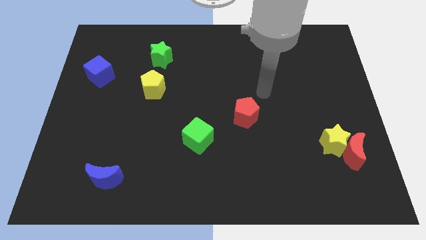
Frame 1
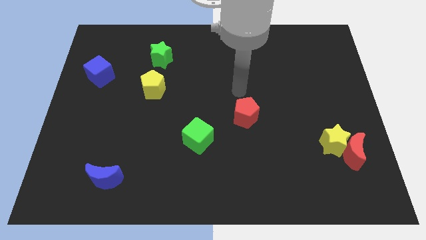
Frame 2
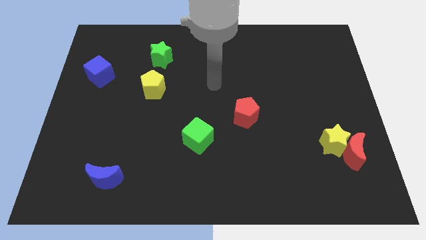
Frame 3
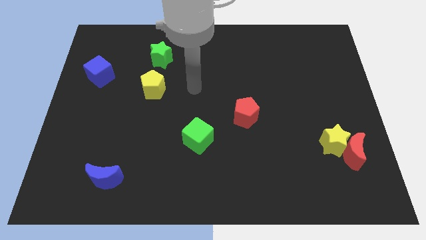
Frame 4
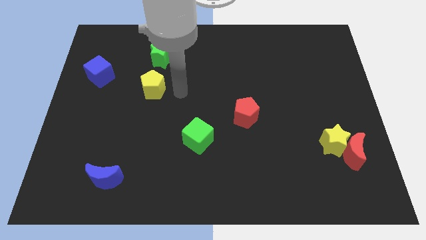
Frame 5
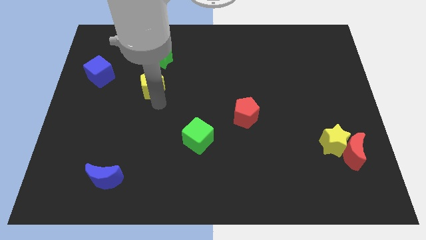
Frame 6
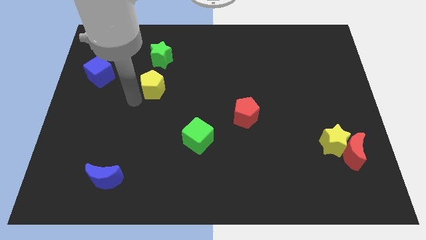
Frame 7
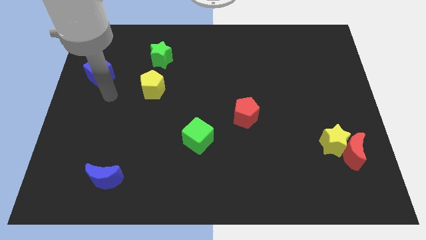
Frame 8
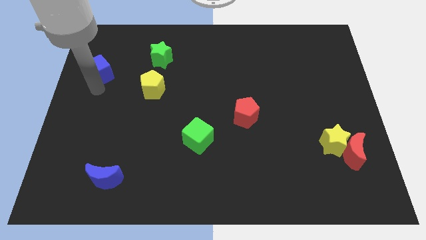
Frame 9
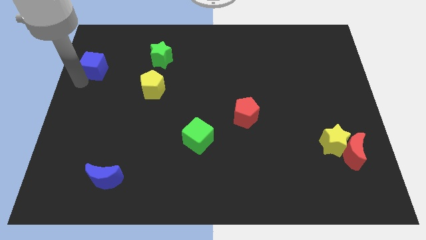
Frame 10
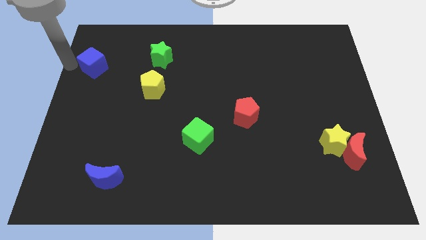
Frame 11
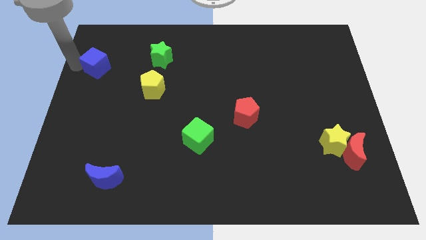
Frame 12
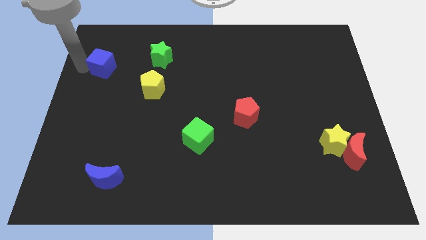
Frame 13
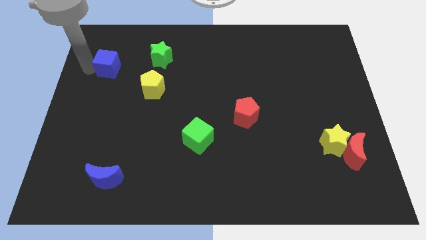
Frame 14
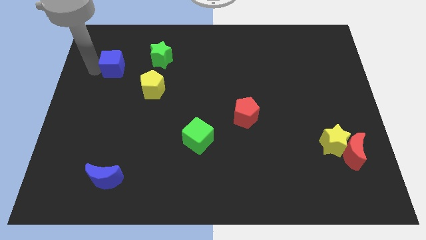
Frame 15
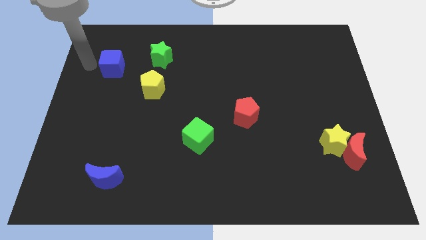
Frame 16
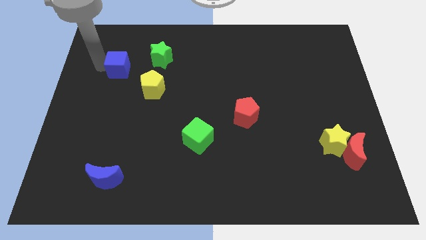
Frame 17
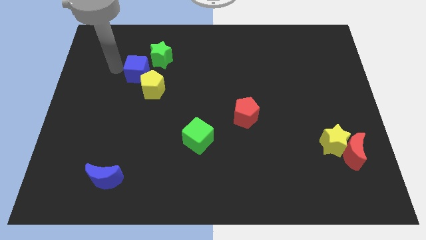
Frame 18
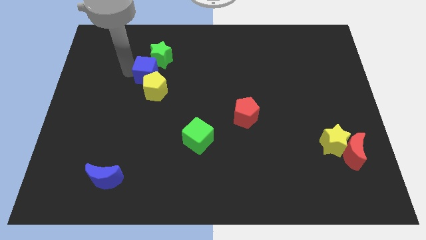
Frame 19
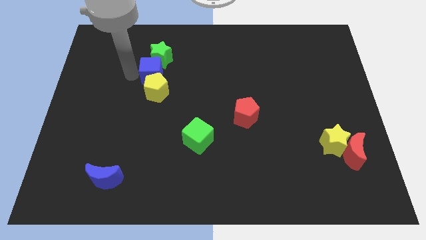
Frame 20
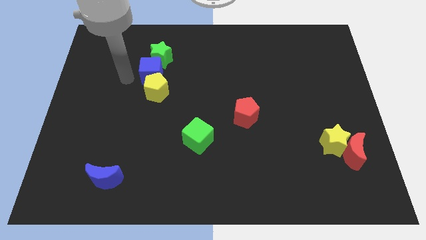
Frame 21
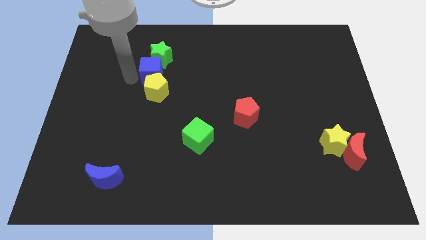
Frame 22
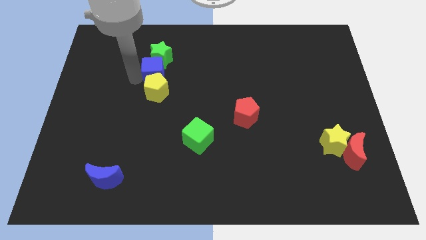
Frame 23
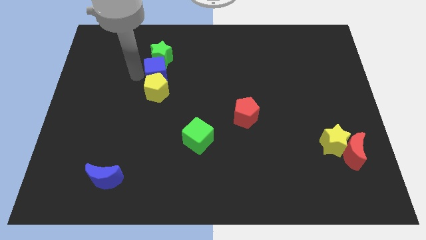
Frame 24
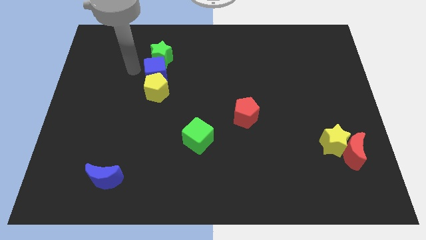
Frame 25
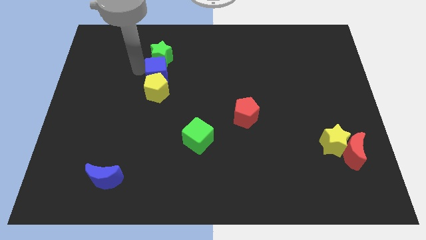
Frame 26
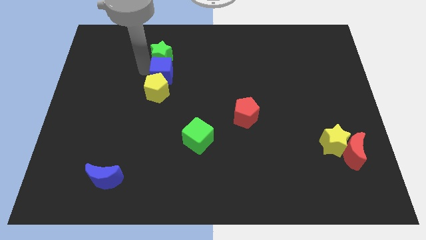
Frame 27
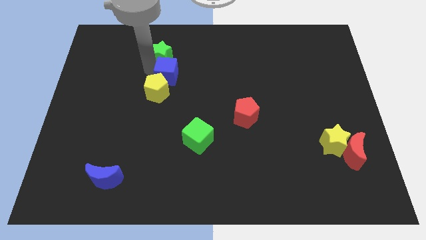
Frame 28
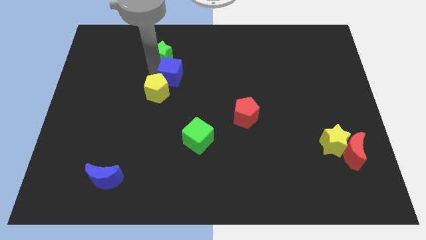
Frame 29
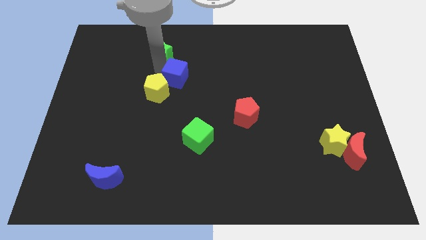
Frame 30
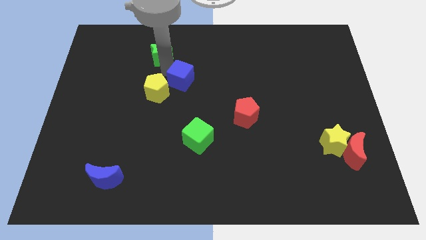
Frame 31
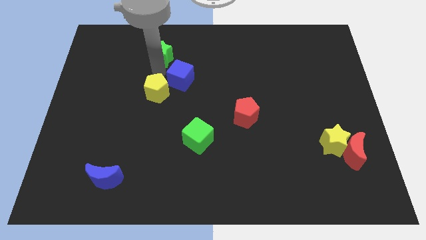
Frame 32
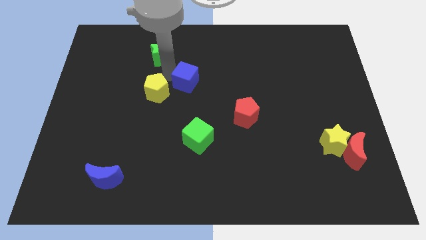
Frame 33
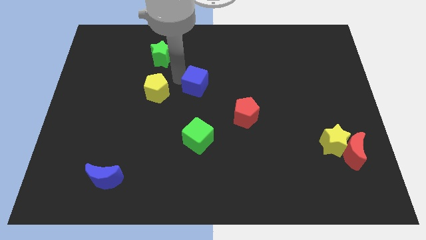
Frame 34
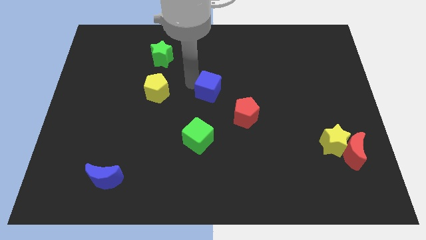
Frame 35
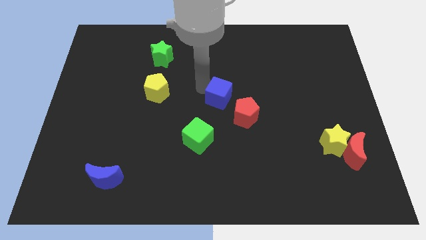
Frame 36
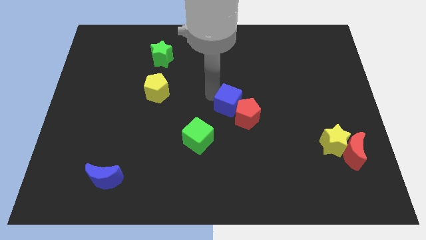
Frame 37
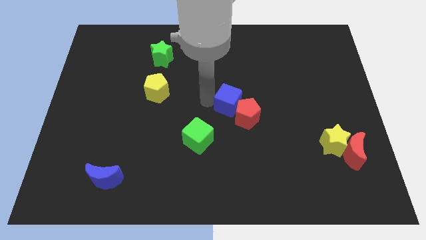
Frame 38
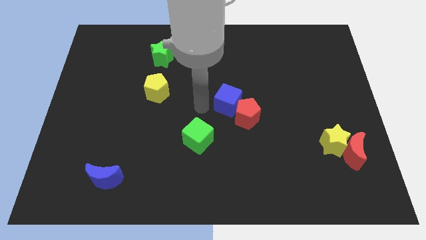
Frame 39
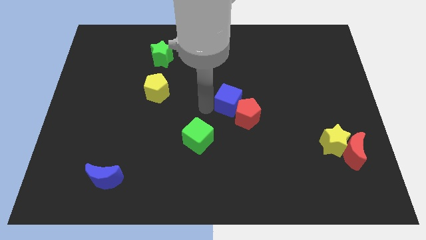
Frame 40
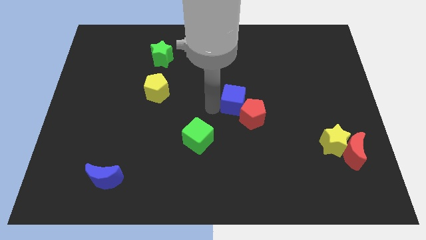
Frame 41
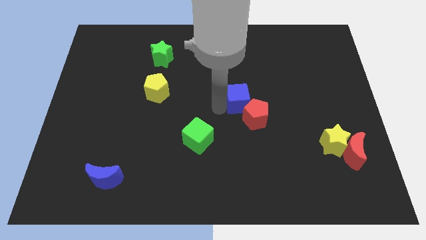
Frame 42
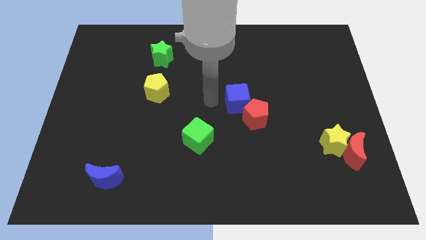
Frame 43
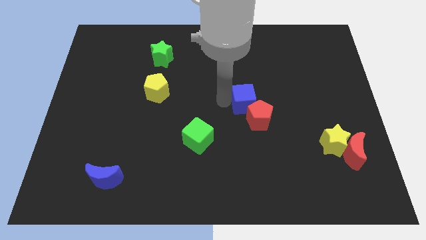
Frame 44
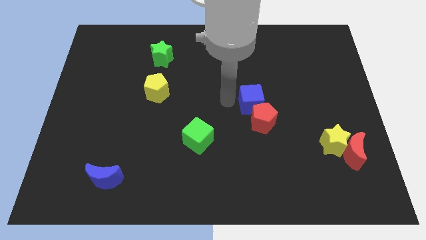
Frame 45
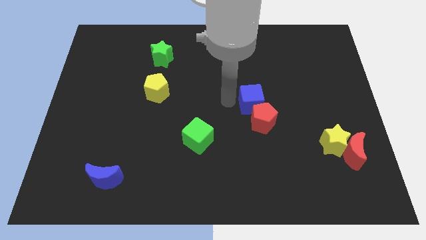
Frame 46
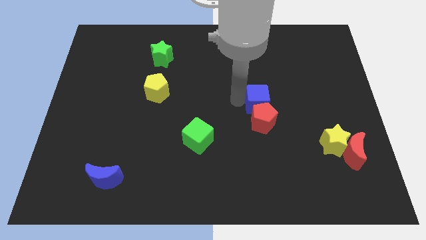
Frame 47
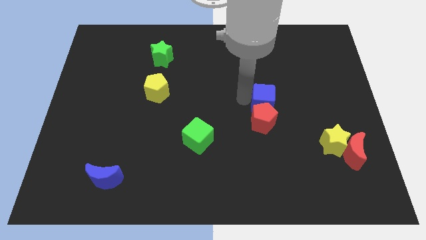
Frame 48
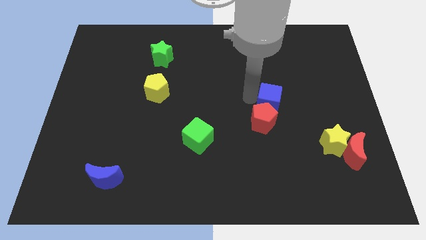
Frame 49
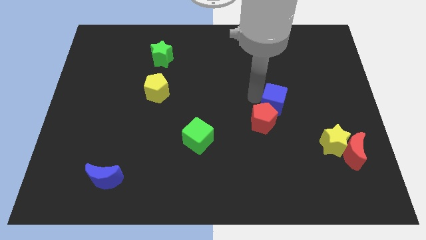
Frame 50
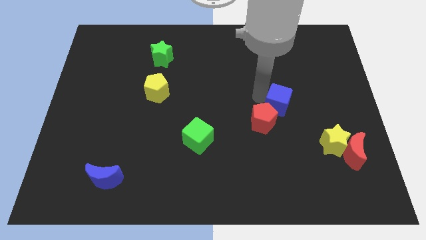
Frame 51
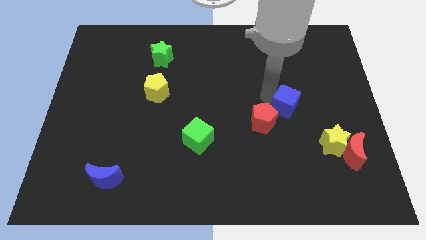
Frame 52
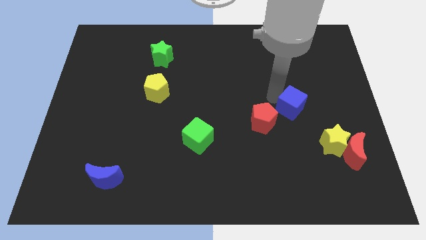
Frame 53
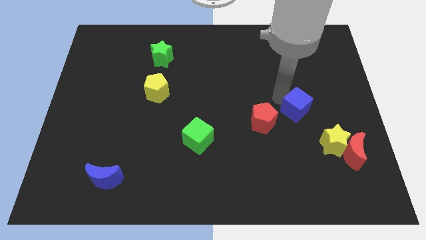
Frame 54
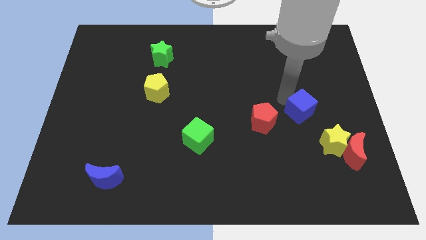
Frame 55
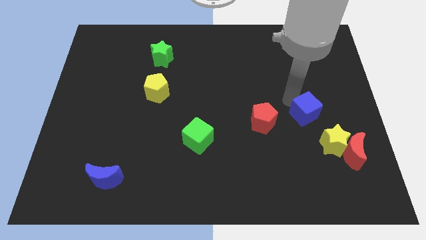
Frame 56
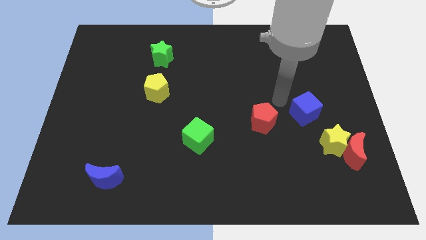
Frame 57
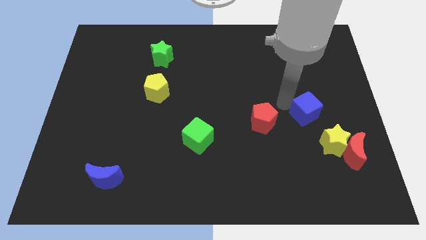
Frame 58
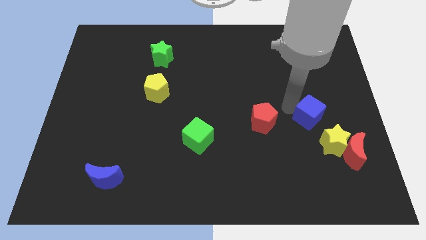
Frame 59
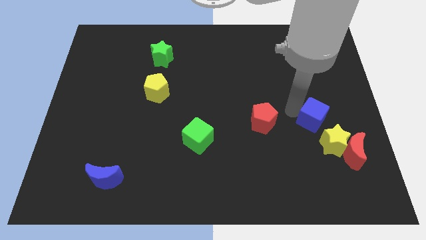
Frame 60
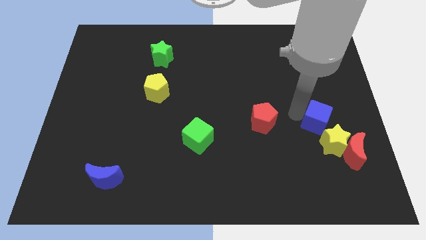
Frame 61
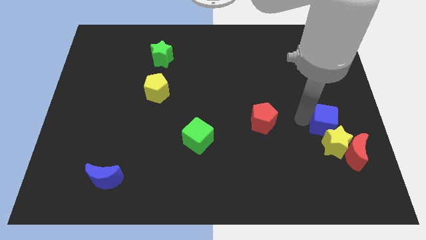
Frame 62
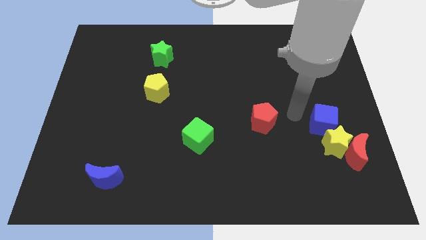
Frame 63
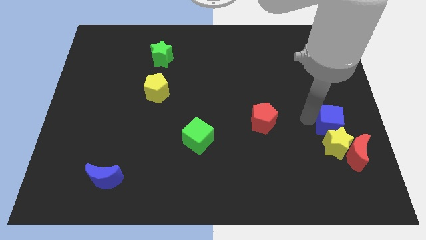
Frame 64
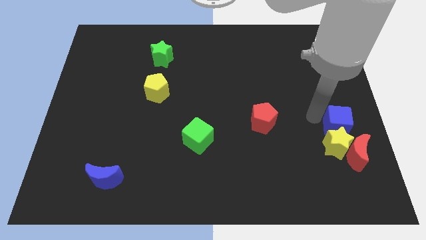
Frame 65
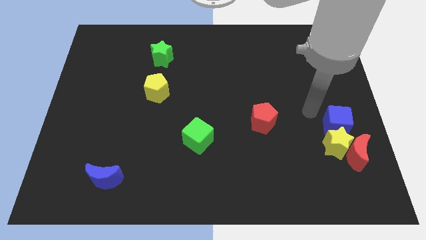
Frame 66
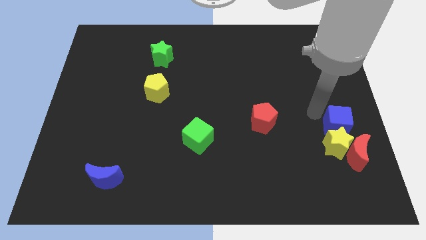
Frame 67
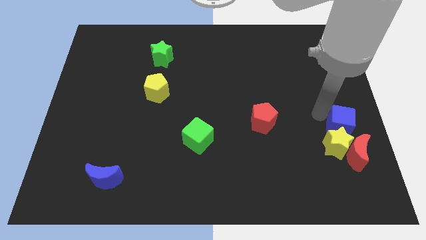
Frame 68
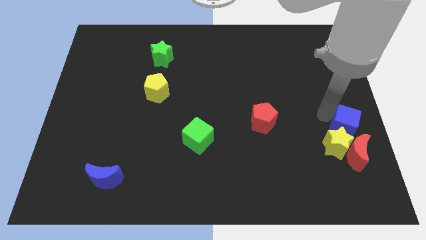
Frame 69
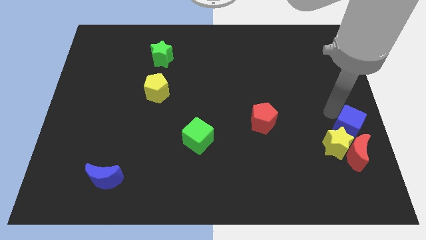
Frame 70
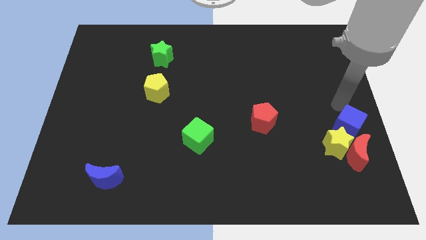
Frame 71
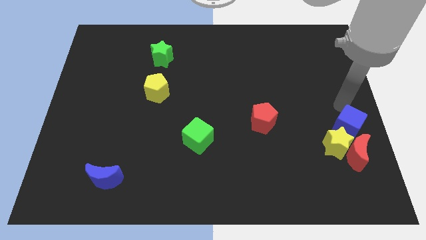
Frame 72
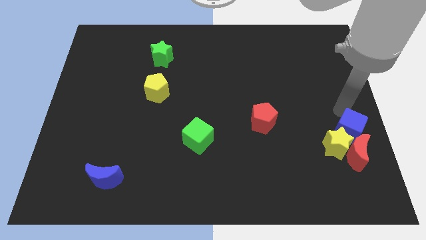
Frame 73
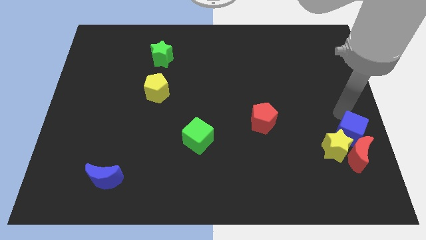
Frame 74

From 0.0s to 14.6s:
slide the blue cube to the red moon
